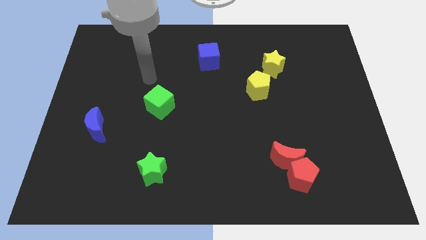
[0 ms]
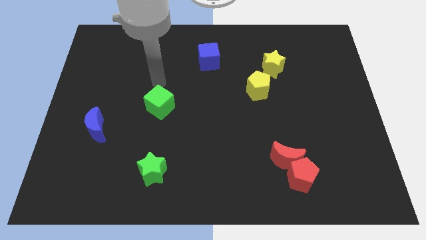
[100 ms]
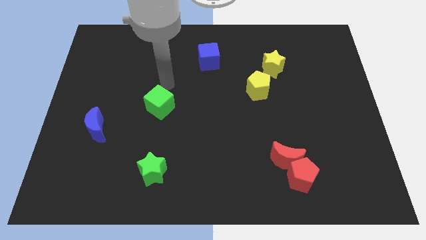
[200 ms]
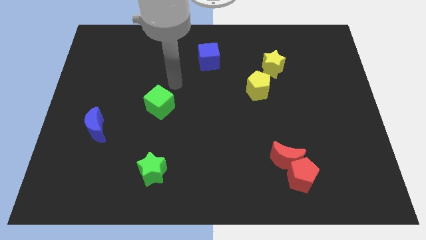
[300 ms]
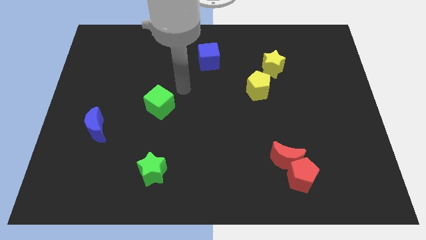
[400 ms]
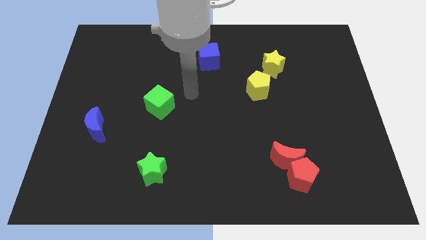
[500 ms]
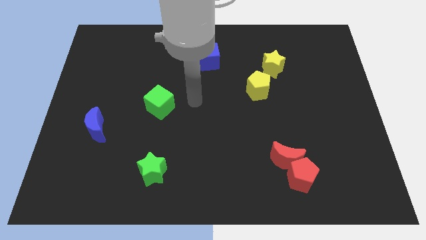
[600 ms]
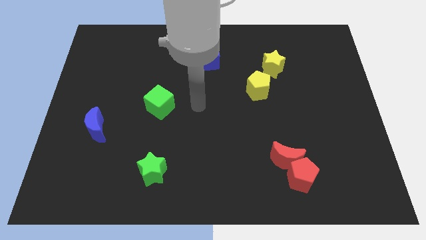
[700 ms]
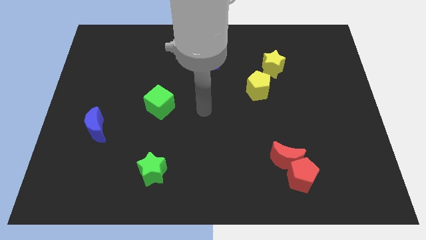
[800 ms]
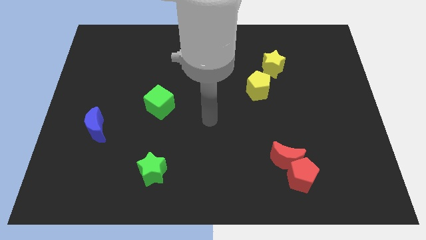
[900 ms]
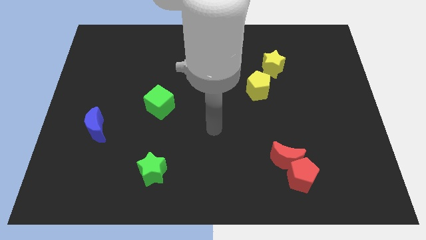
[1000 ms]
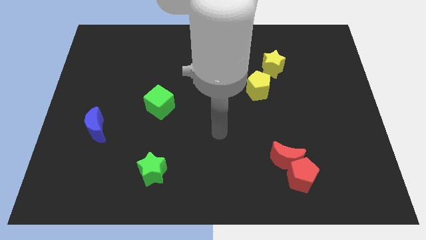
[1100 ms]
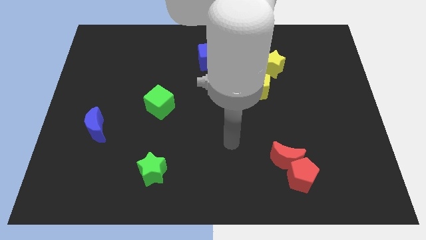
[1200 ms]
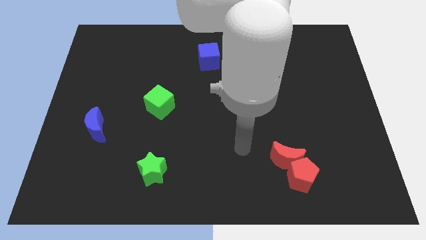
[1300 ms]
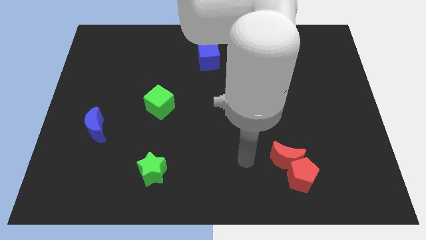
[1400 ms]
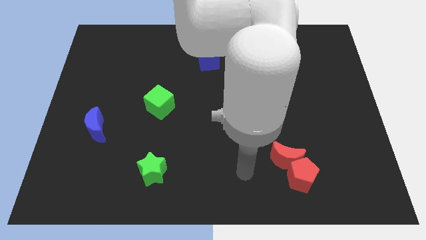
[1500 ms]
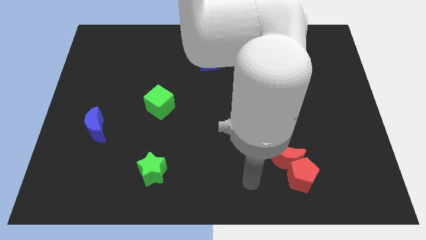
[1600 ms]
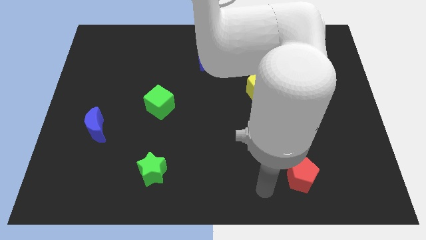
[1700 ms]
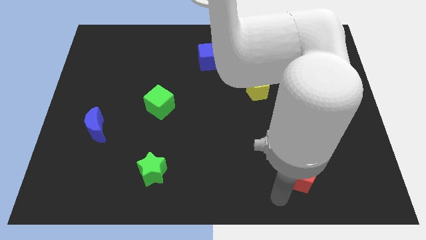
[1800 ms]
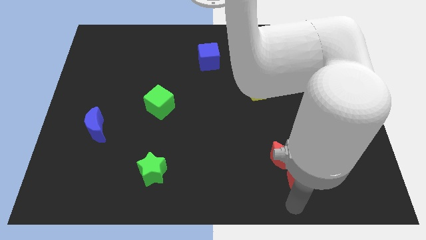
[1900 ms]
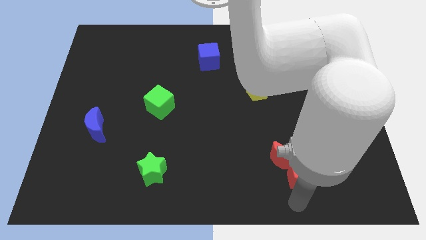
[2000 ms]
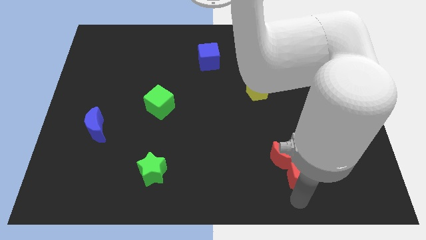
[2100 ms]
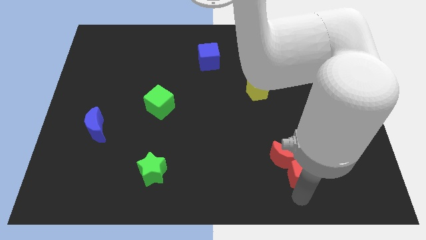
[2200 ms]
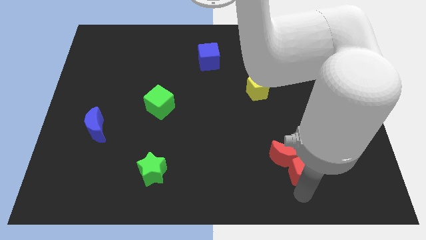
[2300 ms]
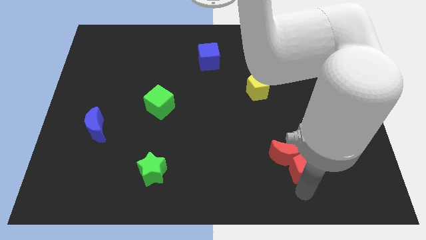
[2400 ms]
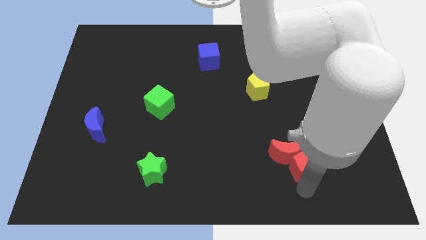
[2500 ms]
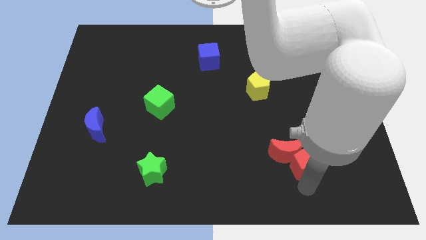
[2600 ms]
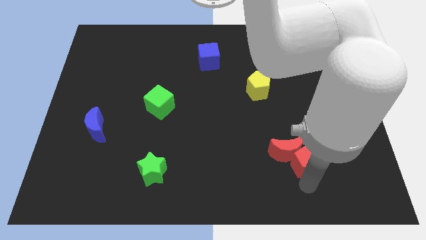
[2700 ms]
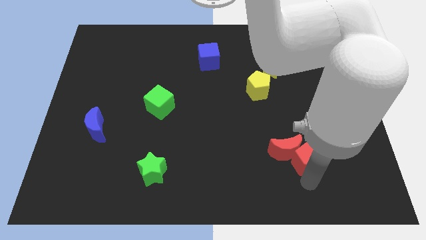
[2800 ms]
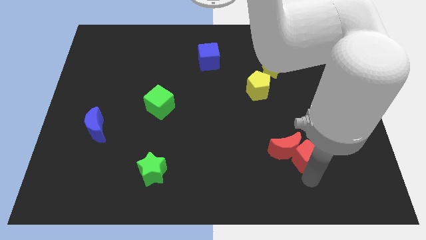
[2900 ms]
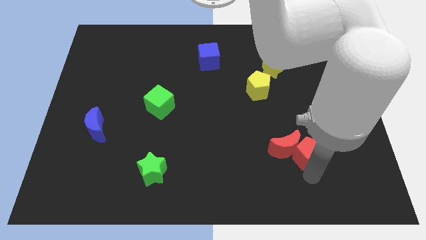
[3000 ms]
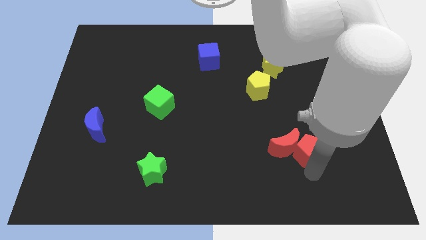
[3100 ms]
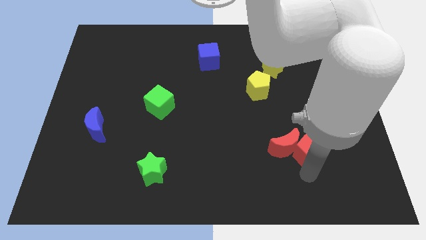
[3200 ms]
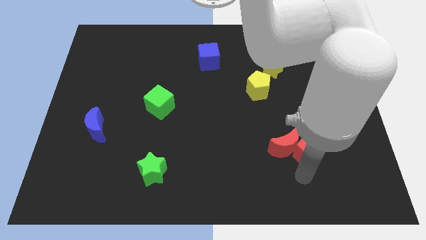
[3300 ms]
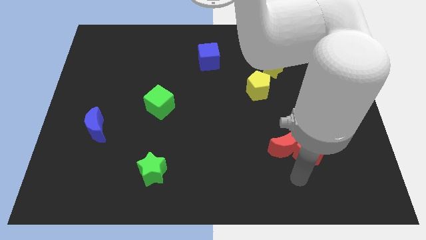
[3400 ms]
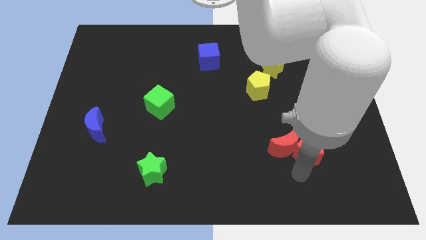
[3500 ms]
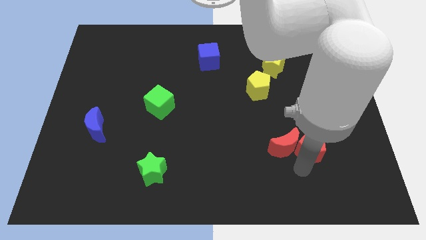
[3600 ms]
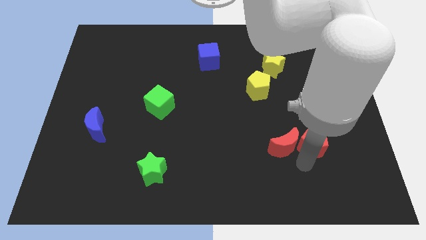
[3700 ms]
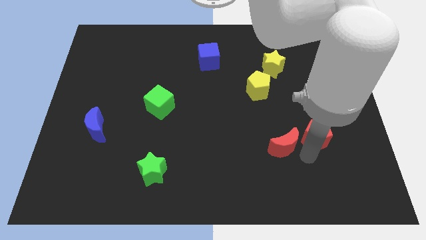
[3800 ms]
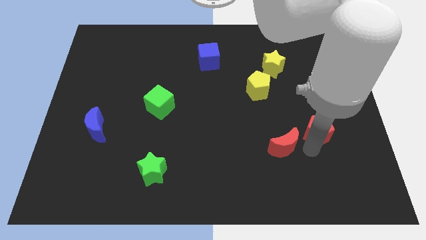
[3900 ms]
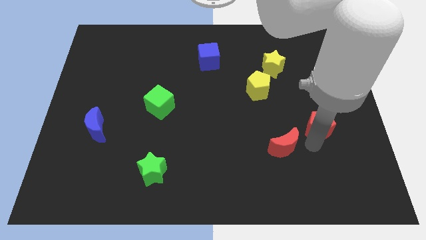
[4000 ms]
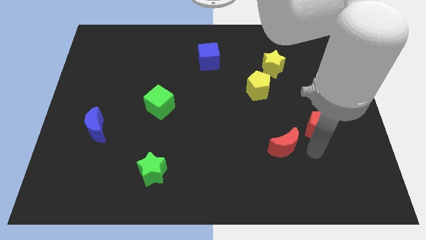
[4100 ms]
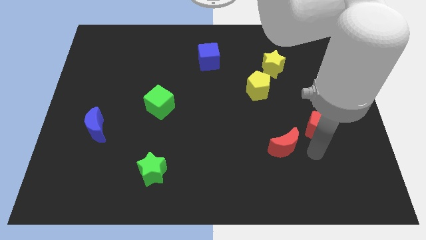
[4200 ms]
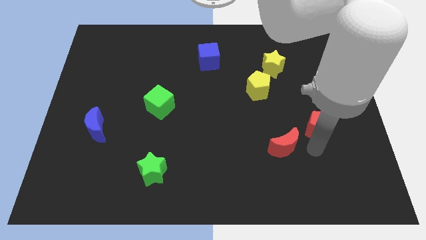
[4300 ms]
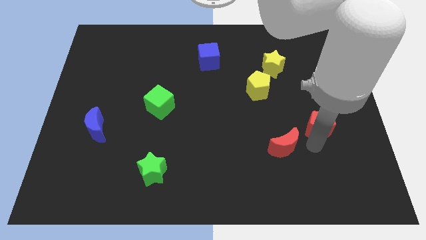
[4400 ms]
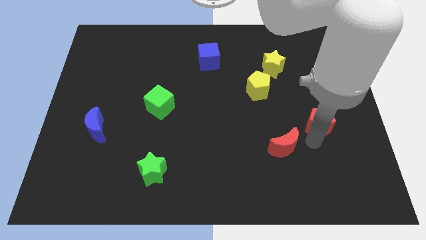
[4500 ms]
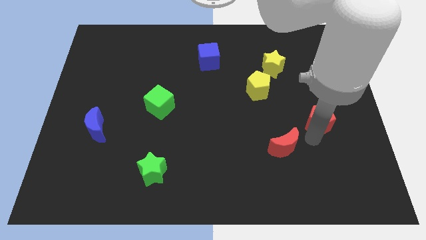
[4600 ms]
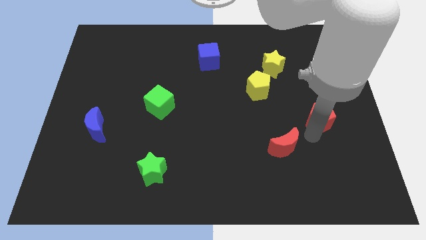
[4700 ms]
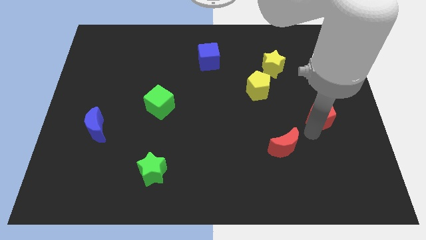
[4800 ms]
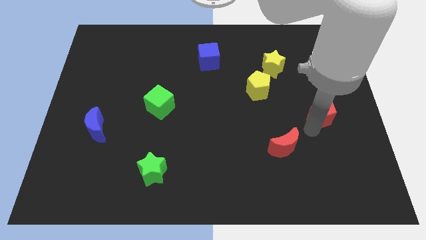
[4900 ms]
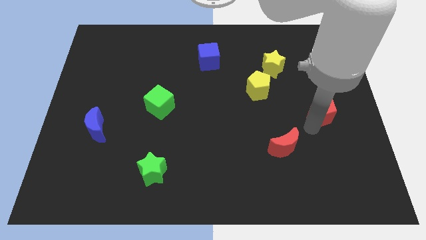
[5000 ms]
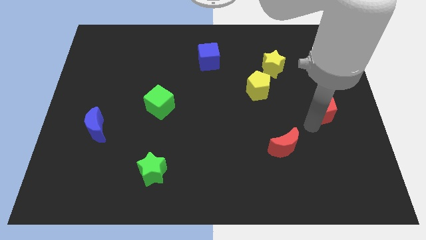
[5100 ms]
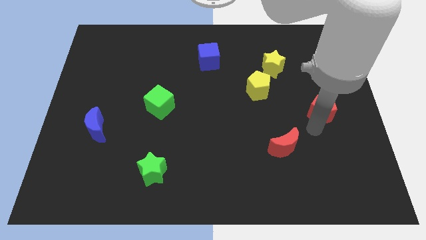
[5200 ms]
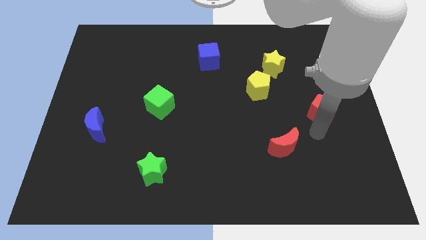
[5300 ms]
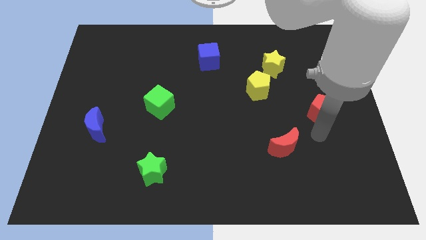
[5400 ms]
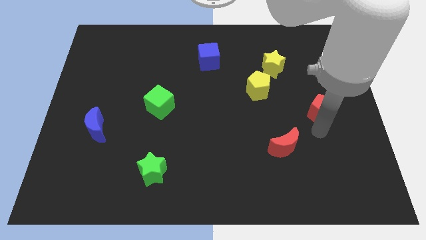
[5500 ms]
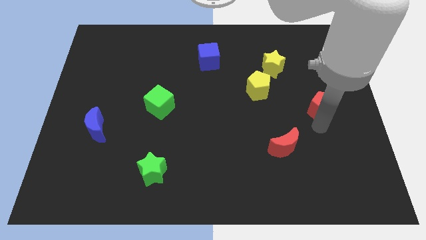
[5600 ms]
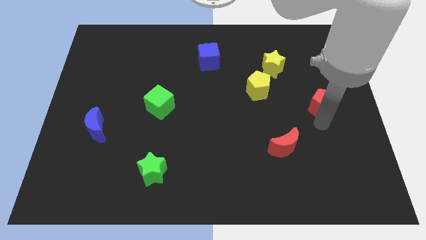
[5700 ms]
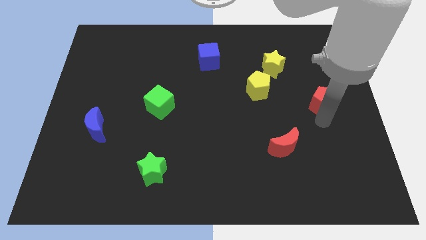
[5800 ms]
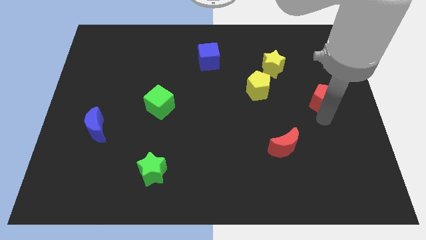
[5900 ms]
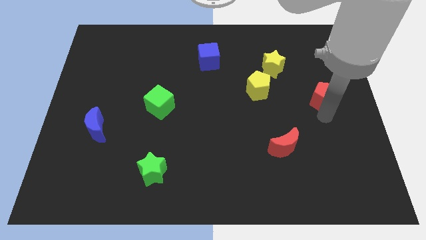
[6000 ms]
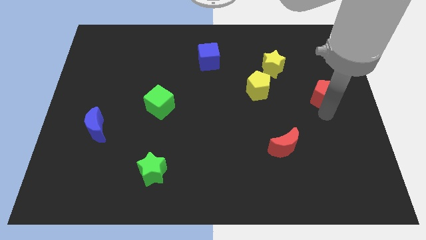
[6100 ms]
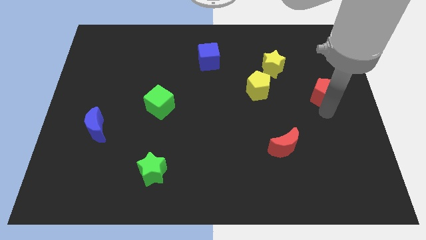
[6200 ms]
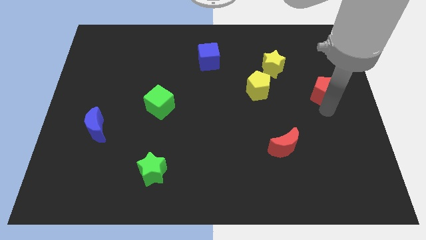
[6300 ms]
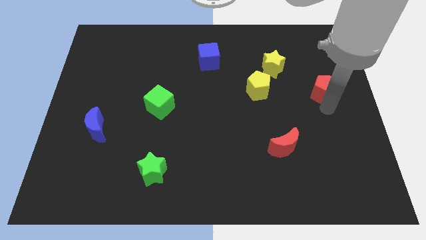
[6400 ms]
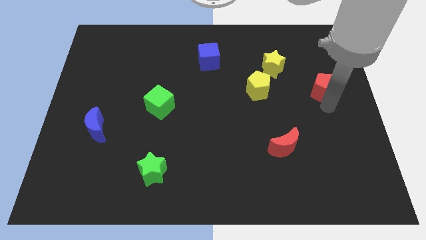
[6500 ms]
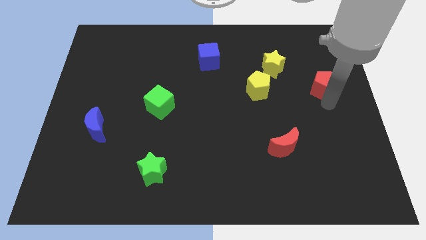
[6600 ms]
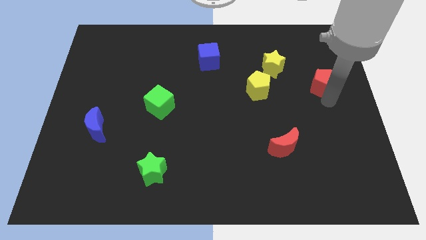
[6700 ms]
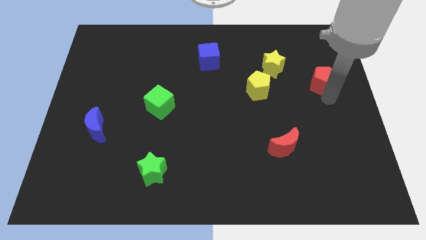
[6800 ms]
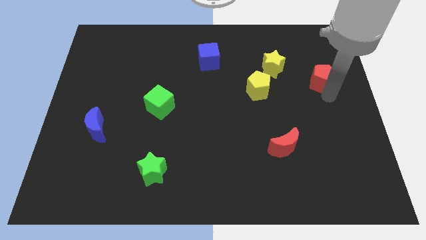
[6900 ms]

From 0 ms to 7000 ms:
move the red pentagon to the right side of the yellow star
